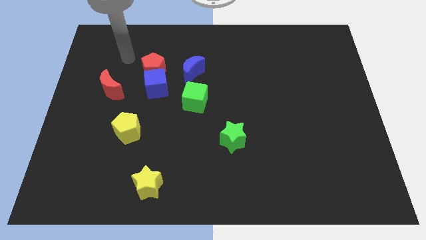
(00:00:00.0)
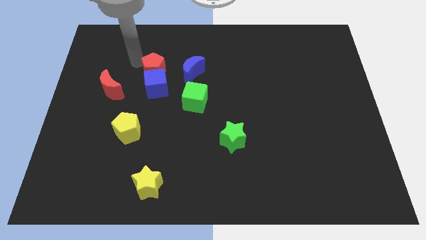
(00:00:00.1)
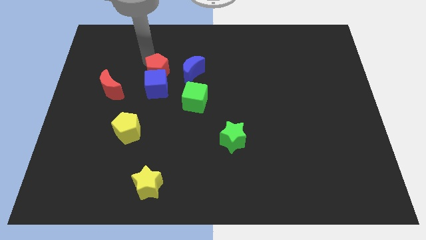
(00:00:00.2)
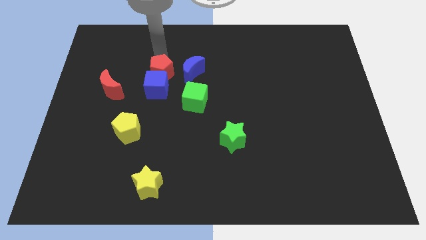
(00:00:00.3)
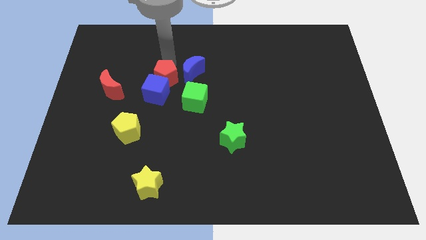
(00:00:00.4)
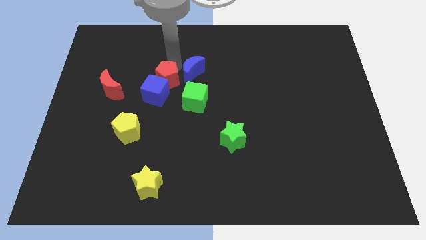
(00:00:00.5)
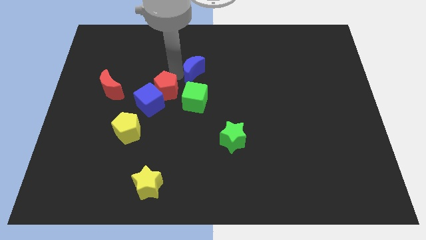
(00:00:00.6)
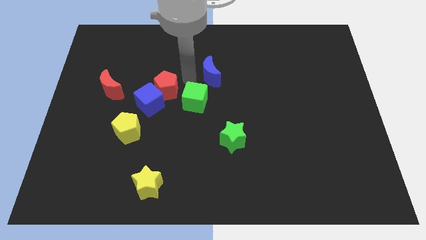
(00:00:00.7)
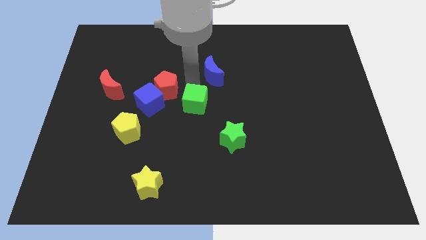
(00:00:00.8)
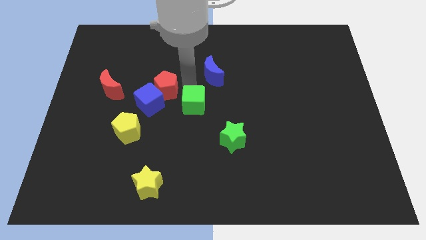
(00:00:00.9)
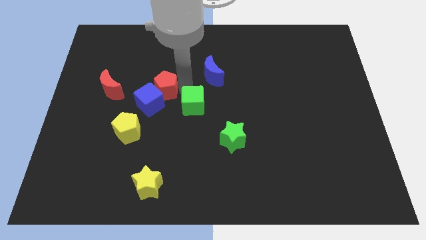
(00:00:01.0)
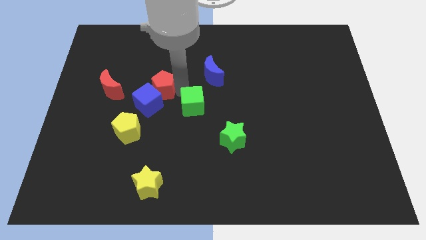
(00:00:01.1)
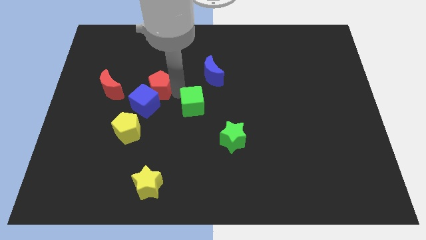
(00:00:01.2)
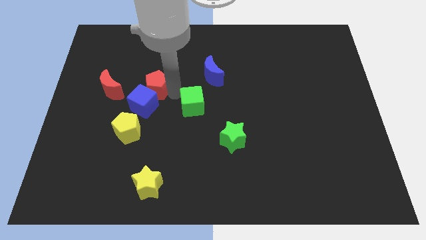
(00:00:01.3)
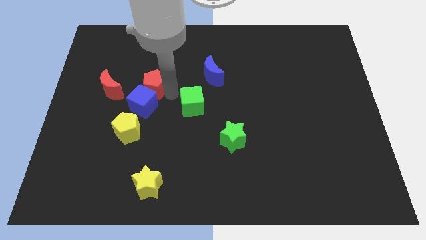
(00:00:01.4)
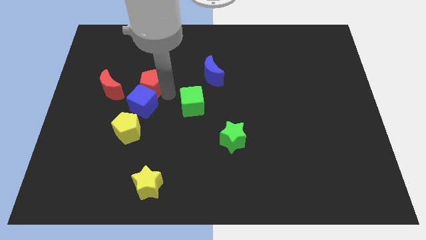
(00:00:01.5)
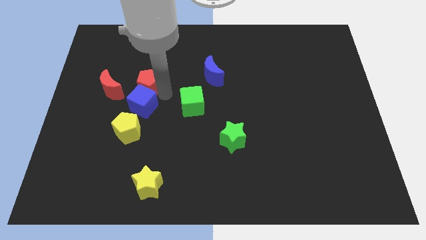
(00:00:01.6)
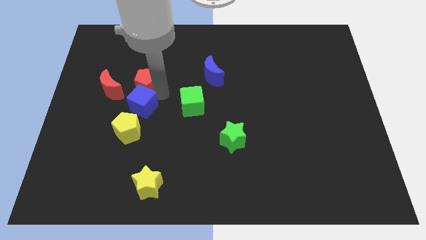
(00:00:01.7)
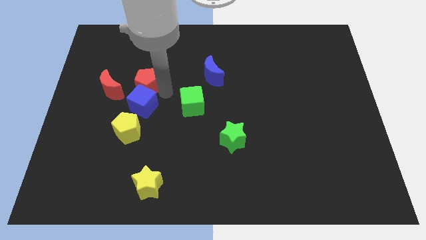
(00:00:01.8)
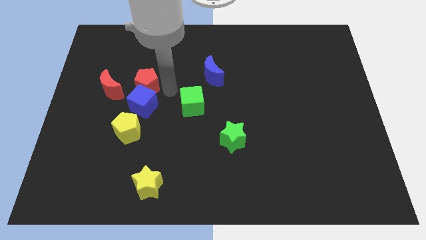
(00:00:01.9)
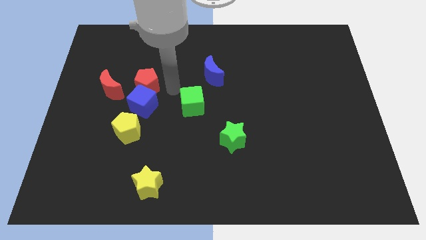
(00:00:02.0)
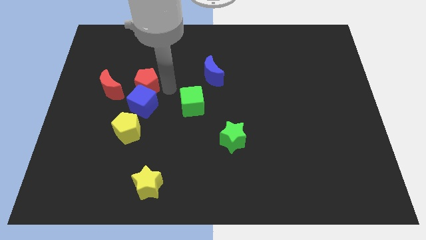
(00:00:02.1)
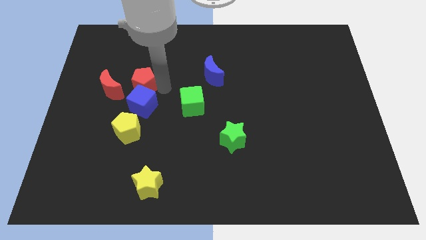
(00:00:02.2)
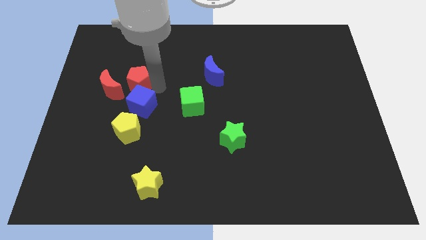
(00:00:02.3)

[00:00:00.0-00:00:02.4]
separate the red pentagon from the blue cube and blue moon

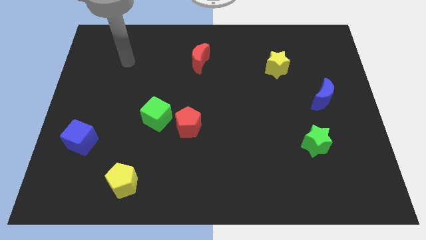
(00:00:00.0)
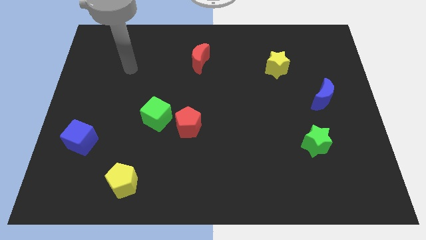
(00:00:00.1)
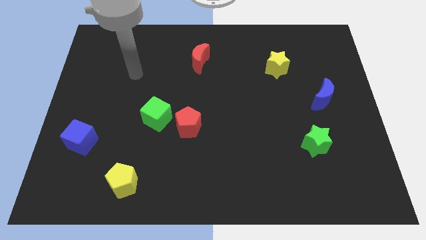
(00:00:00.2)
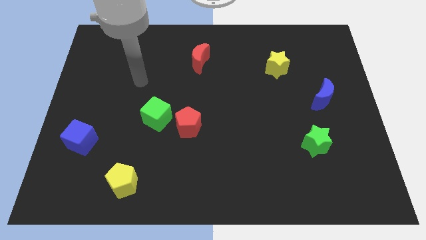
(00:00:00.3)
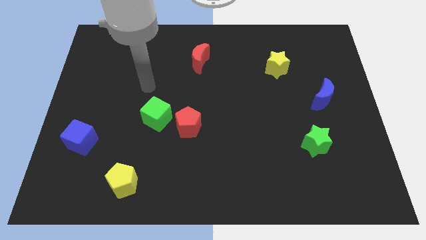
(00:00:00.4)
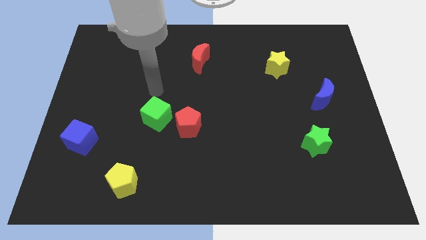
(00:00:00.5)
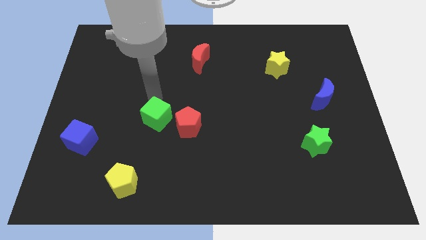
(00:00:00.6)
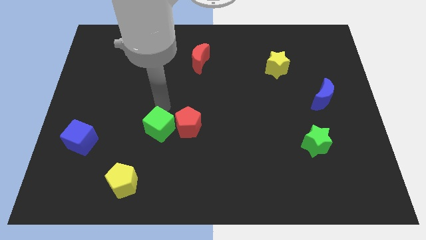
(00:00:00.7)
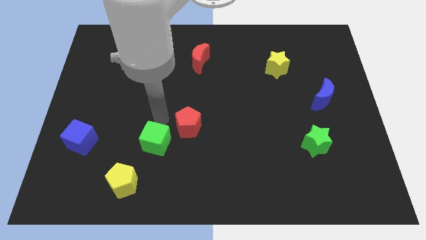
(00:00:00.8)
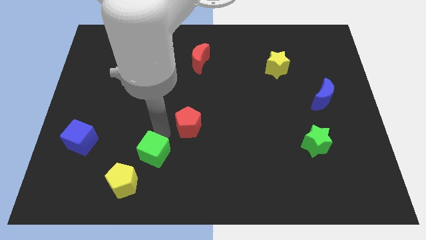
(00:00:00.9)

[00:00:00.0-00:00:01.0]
pull the red pentagon apart from the green cube

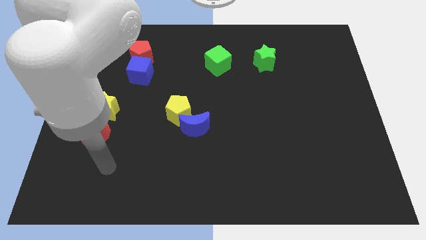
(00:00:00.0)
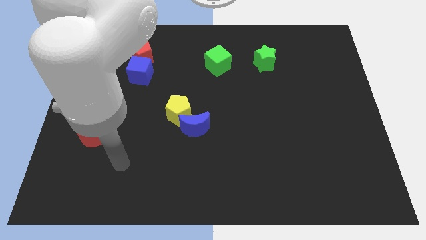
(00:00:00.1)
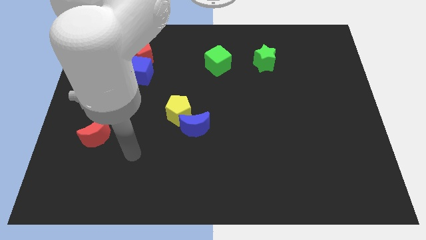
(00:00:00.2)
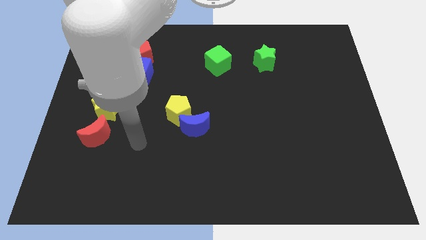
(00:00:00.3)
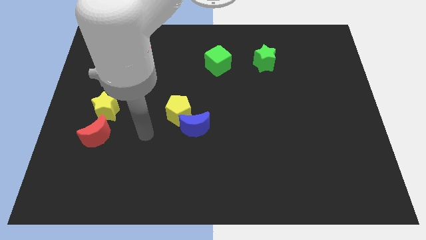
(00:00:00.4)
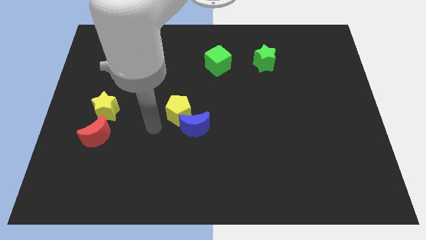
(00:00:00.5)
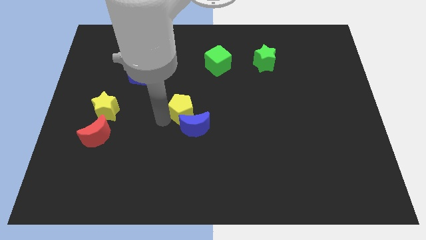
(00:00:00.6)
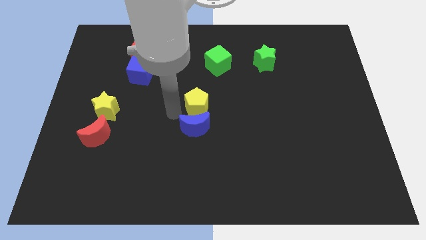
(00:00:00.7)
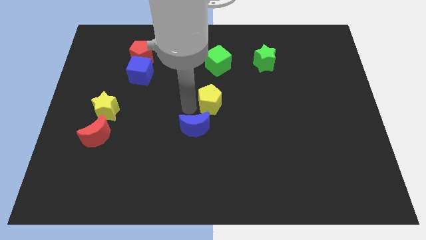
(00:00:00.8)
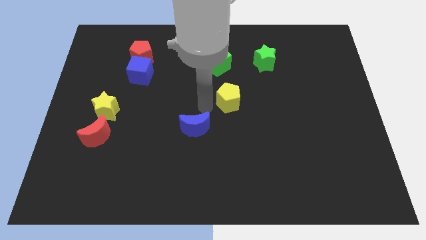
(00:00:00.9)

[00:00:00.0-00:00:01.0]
separate the blue moon from the yellow pentagon

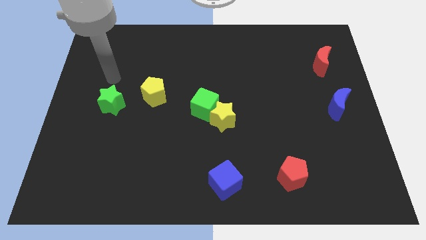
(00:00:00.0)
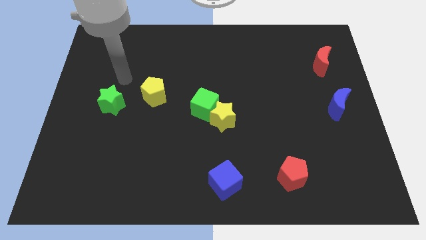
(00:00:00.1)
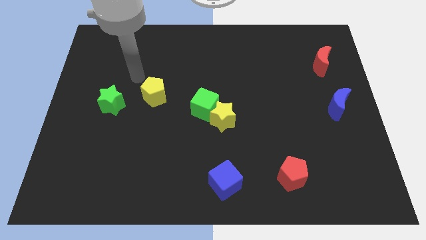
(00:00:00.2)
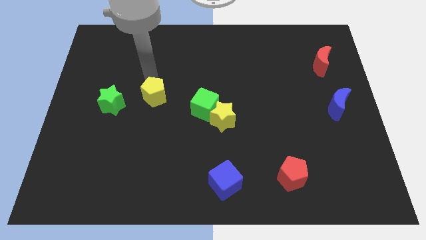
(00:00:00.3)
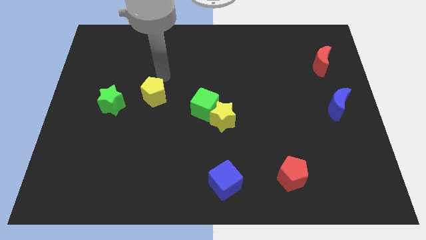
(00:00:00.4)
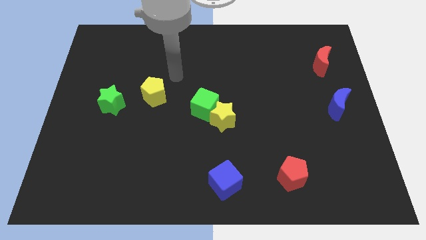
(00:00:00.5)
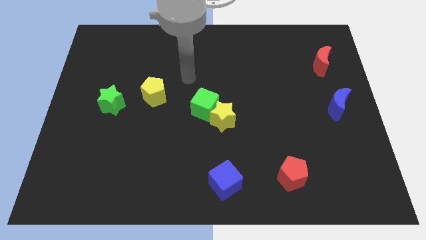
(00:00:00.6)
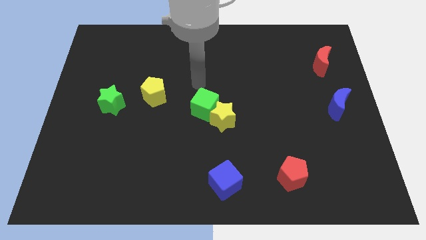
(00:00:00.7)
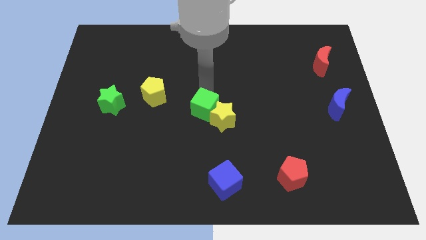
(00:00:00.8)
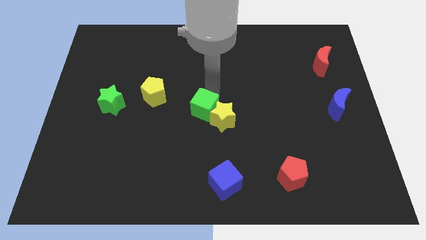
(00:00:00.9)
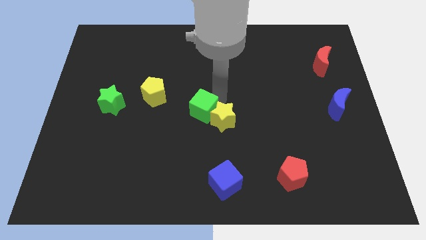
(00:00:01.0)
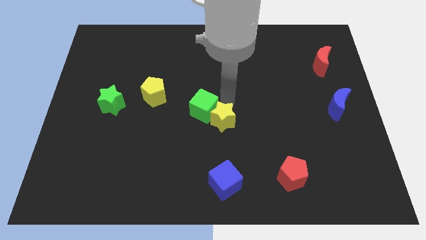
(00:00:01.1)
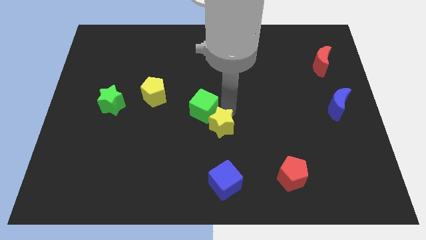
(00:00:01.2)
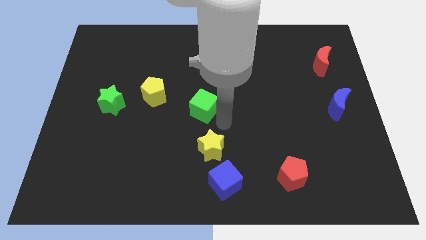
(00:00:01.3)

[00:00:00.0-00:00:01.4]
move the green cube away from the yellow star

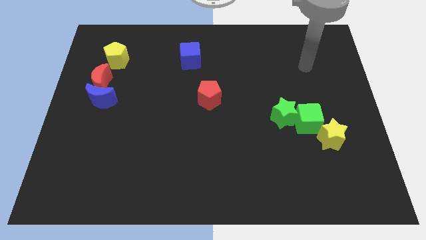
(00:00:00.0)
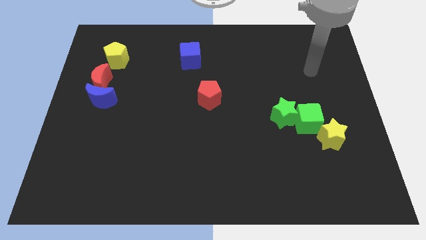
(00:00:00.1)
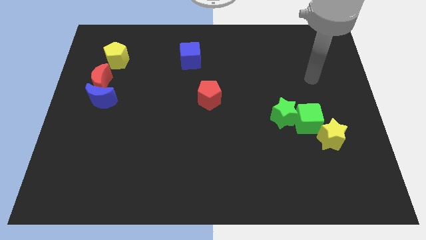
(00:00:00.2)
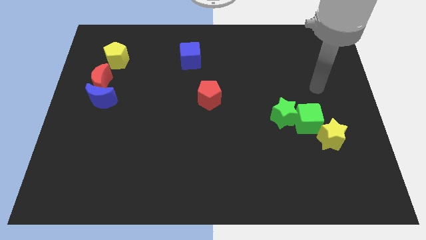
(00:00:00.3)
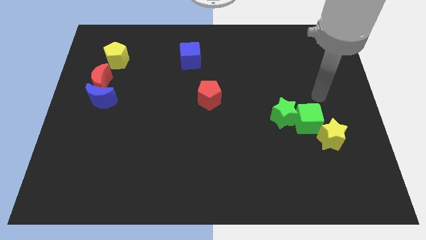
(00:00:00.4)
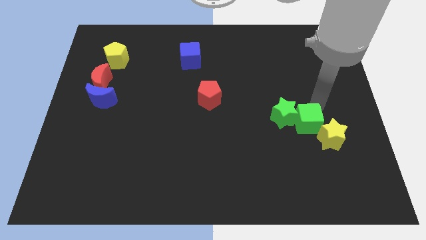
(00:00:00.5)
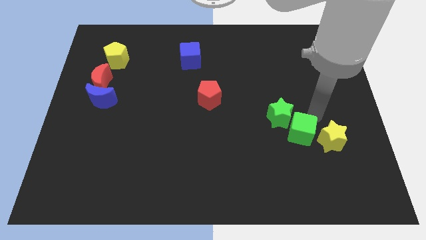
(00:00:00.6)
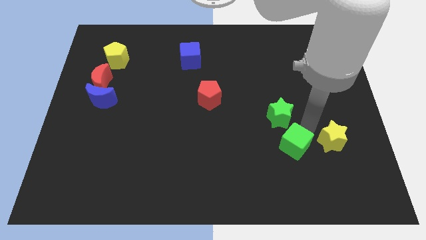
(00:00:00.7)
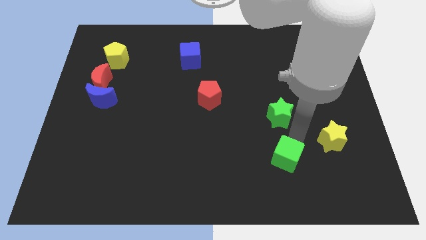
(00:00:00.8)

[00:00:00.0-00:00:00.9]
pull the green star apart from the green cube

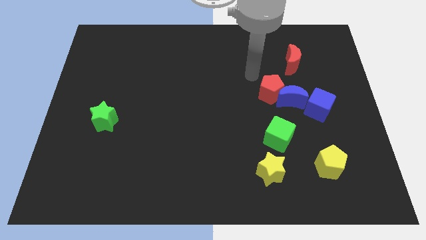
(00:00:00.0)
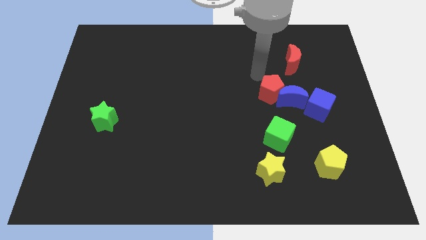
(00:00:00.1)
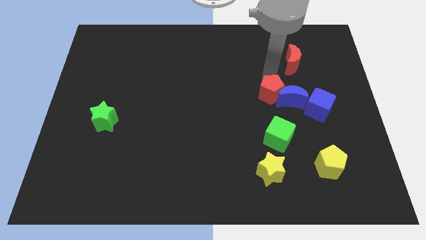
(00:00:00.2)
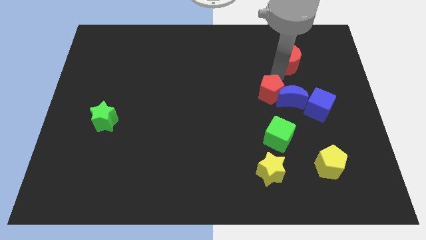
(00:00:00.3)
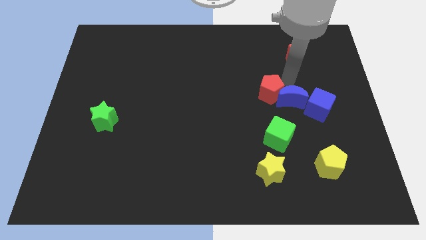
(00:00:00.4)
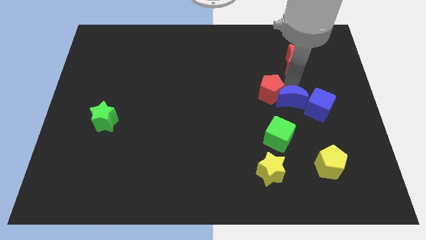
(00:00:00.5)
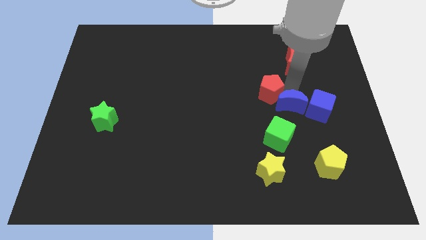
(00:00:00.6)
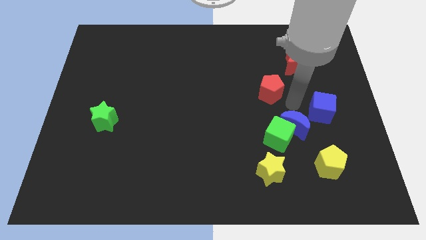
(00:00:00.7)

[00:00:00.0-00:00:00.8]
move the red pentagon away from the blue moon

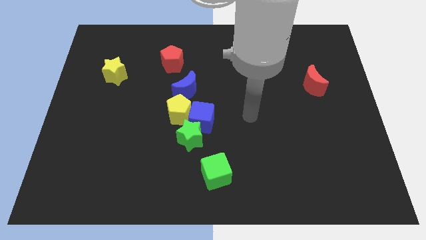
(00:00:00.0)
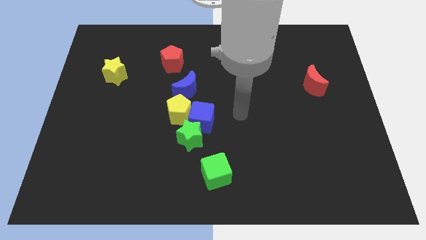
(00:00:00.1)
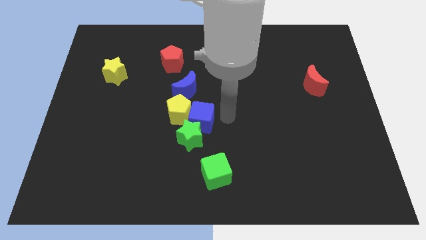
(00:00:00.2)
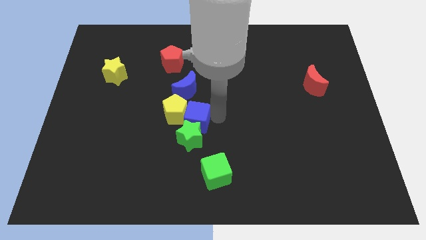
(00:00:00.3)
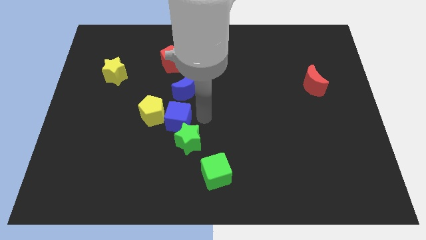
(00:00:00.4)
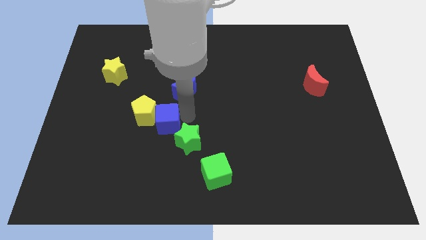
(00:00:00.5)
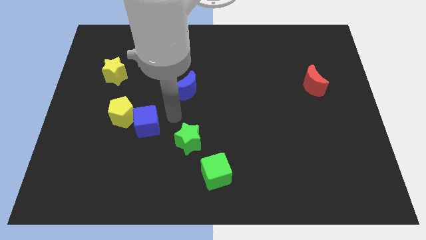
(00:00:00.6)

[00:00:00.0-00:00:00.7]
pull the yellow pentagon apart from the blue cube, blue moon, and green star

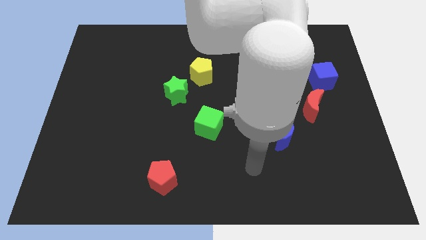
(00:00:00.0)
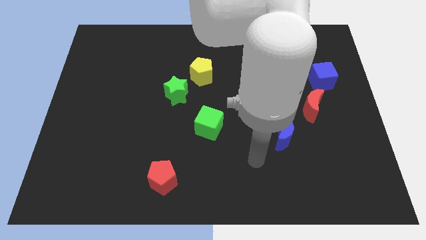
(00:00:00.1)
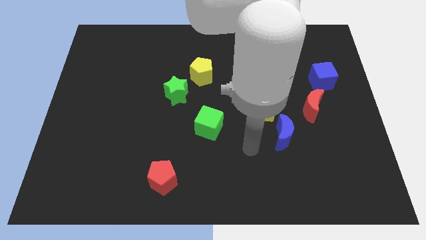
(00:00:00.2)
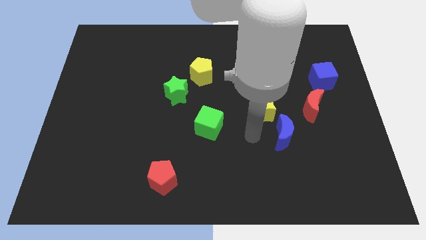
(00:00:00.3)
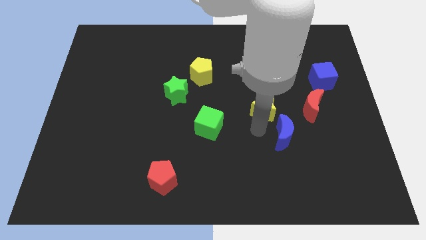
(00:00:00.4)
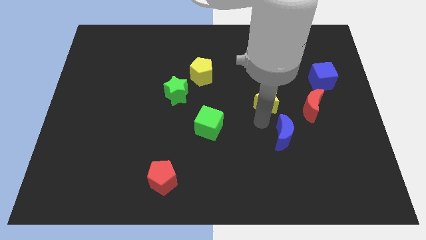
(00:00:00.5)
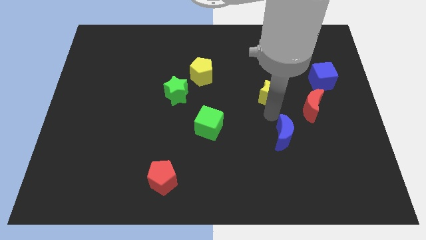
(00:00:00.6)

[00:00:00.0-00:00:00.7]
pull the blue moon apart from the yellow star

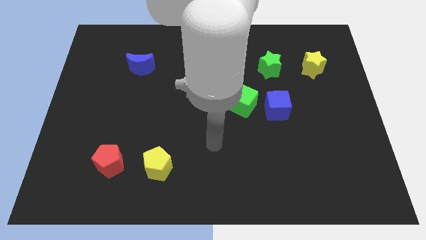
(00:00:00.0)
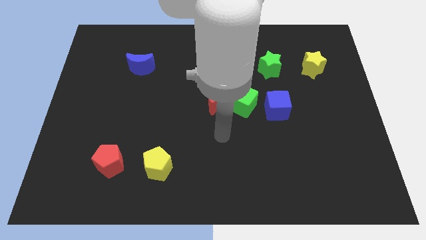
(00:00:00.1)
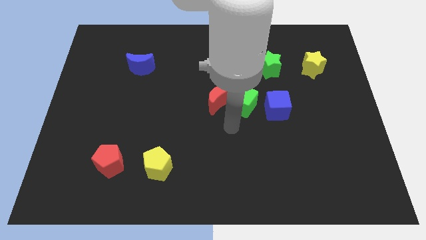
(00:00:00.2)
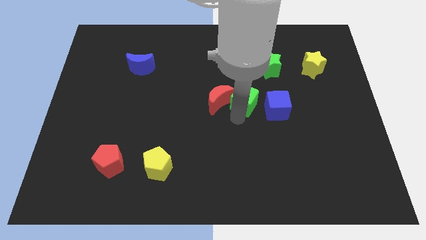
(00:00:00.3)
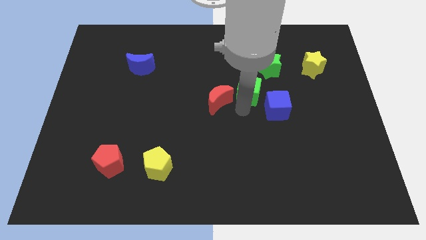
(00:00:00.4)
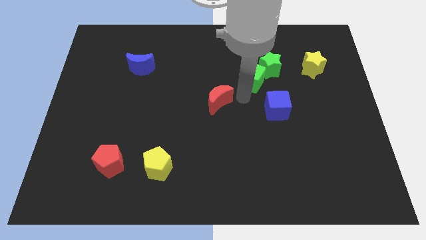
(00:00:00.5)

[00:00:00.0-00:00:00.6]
separate the red moon from the green cube
